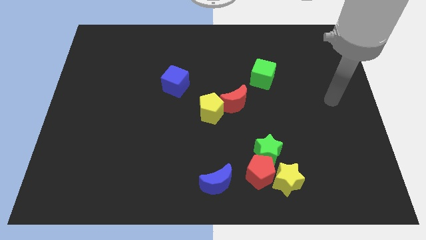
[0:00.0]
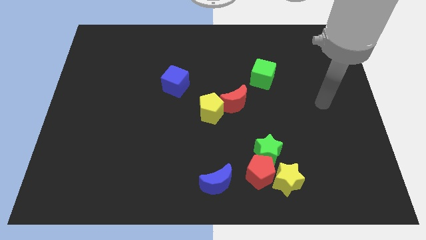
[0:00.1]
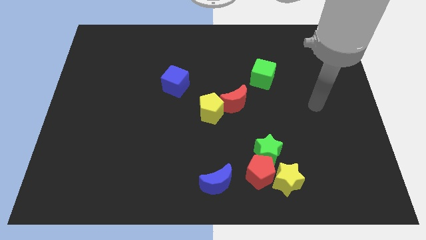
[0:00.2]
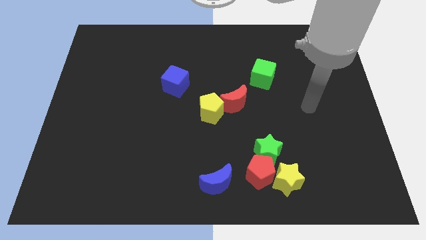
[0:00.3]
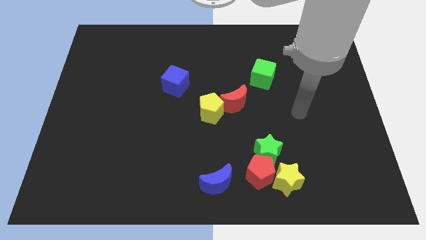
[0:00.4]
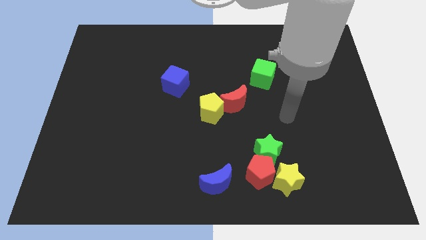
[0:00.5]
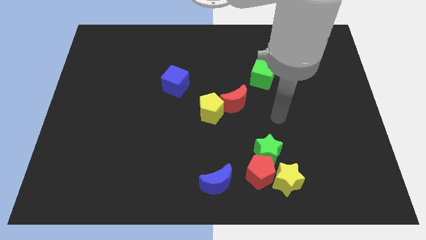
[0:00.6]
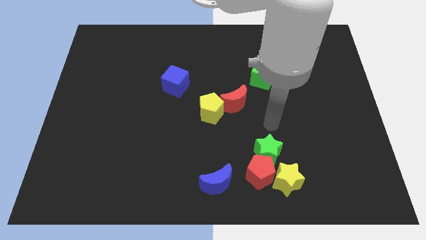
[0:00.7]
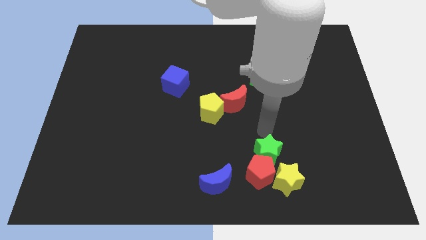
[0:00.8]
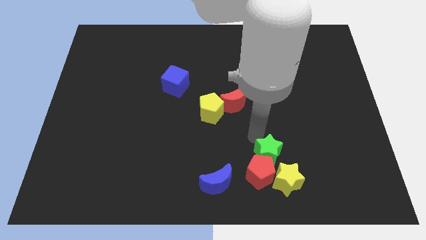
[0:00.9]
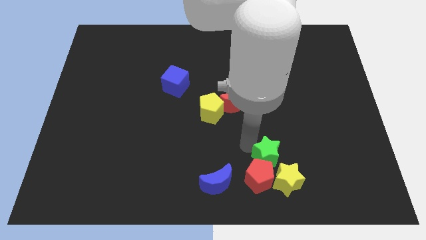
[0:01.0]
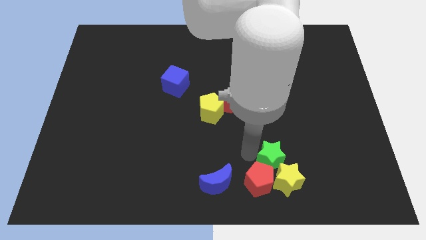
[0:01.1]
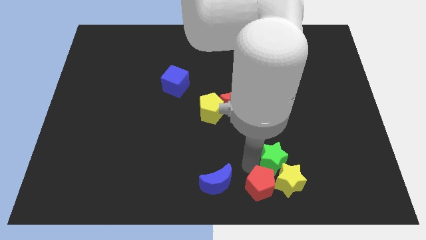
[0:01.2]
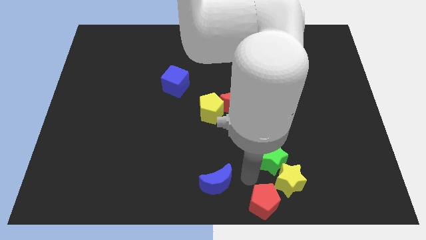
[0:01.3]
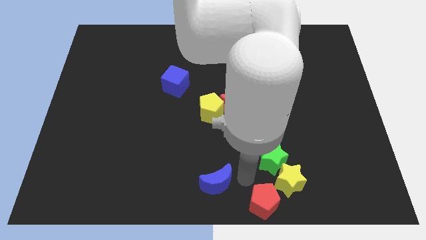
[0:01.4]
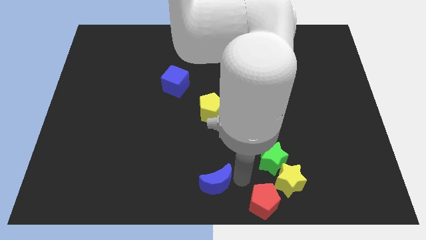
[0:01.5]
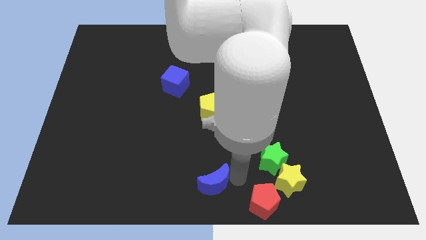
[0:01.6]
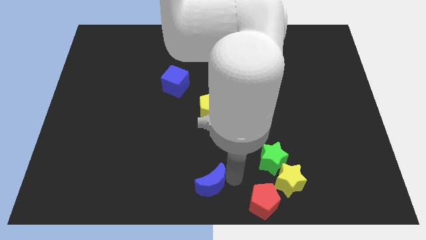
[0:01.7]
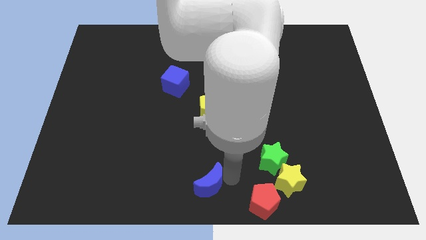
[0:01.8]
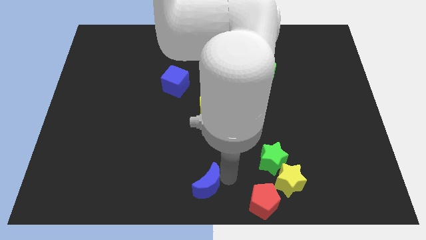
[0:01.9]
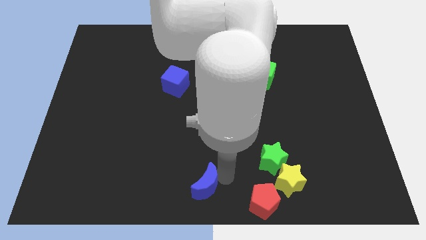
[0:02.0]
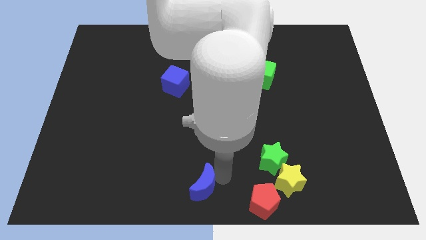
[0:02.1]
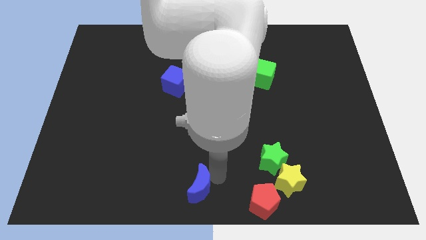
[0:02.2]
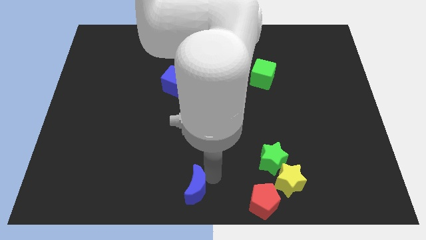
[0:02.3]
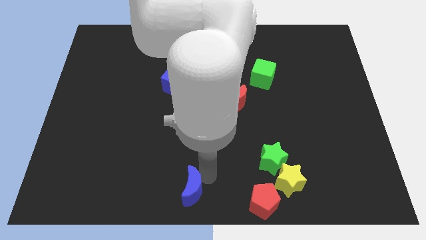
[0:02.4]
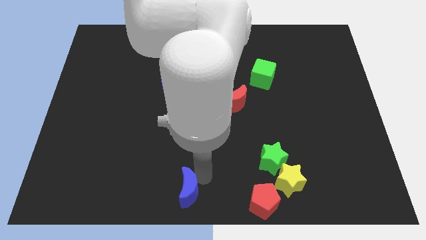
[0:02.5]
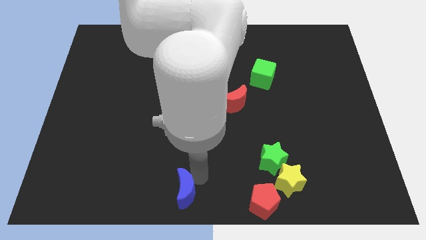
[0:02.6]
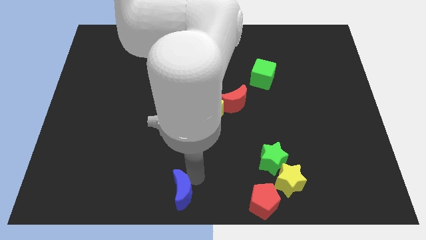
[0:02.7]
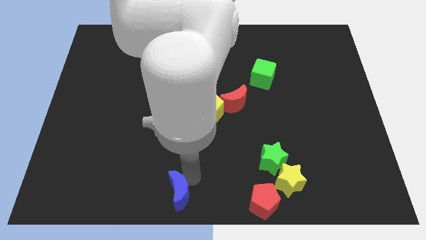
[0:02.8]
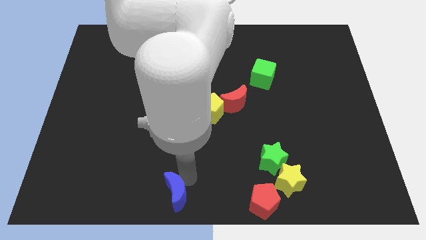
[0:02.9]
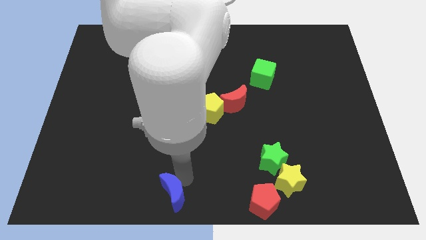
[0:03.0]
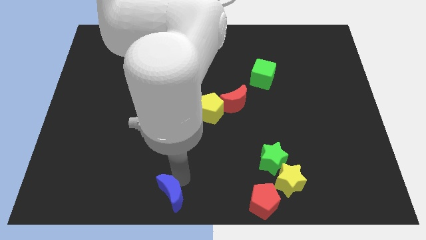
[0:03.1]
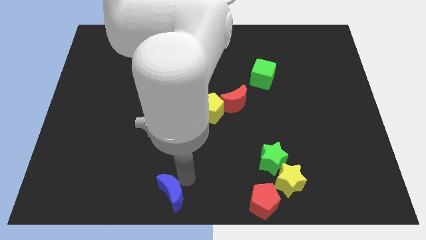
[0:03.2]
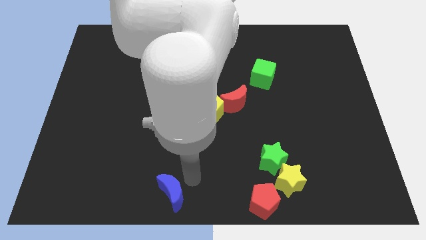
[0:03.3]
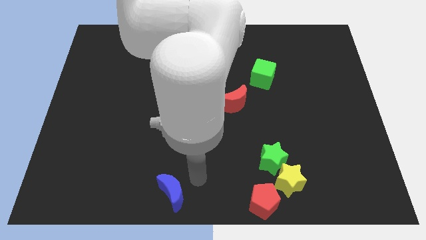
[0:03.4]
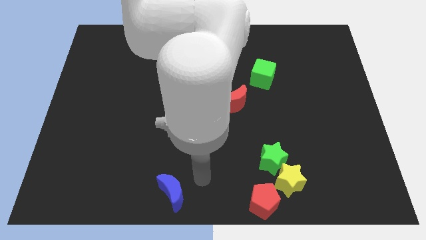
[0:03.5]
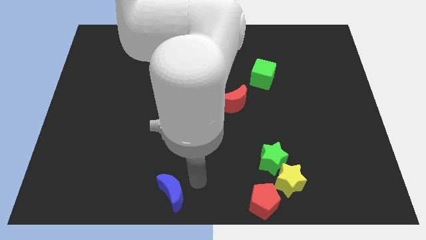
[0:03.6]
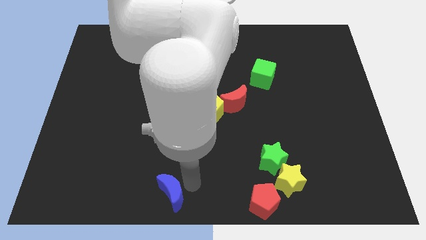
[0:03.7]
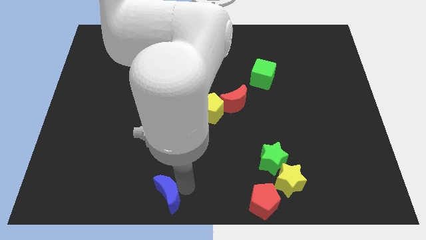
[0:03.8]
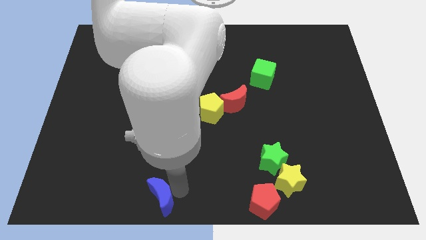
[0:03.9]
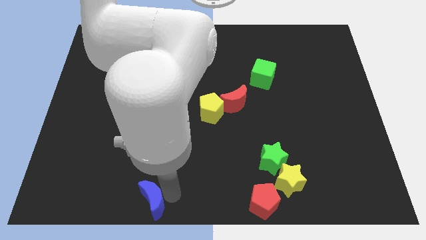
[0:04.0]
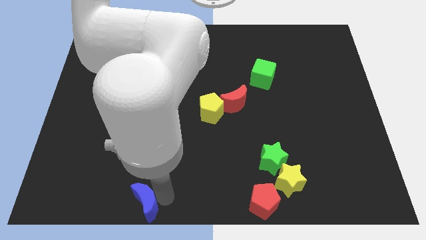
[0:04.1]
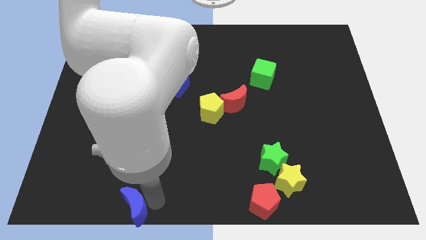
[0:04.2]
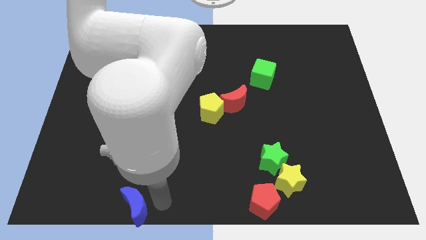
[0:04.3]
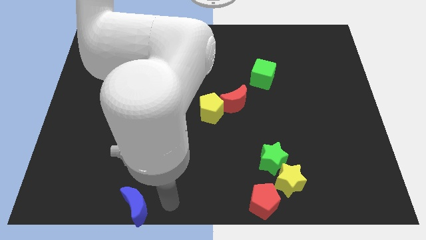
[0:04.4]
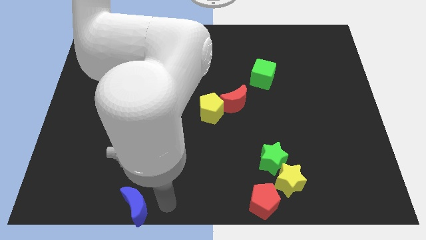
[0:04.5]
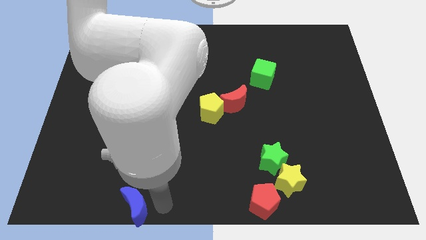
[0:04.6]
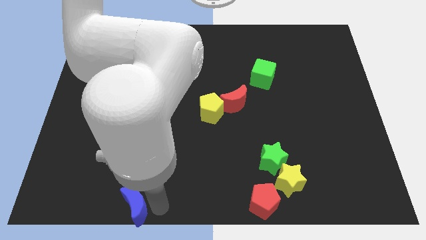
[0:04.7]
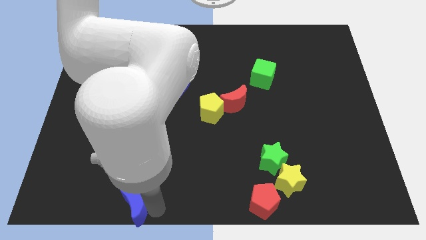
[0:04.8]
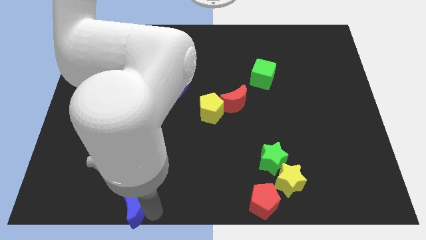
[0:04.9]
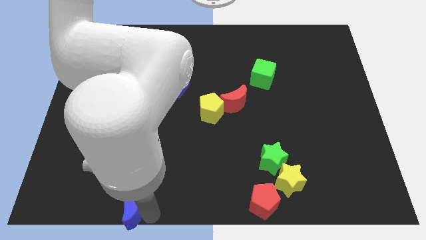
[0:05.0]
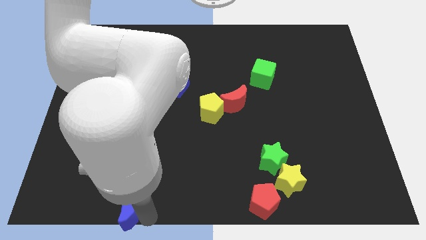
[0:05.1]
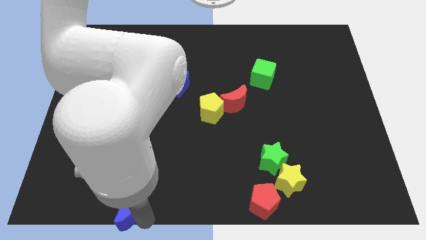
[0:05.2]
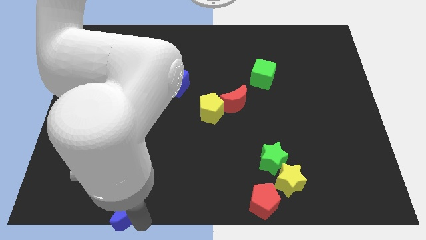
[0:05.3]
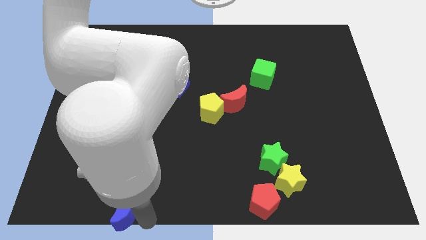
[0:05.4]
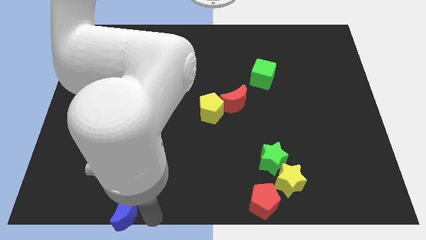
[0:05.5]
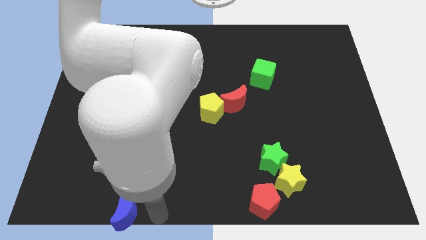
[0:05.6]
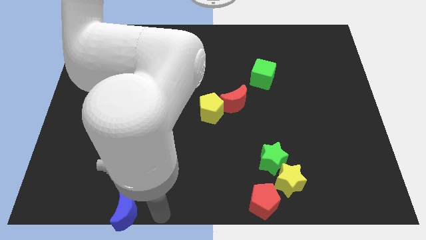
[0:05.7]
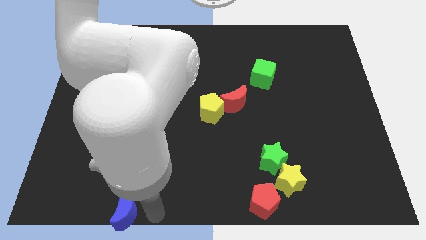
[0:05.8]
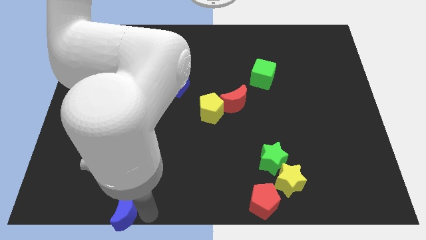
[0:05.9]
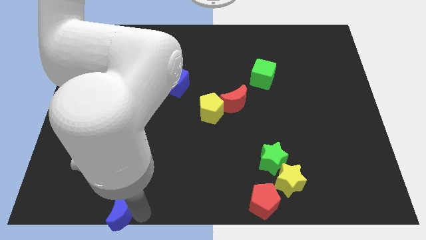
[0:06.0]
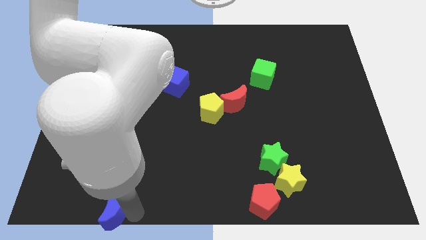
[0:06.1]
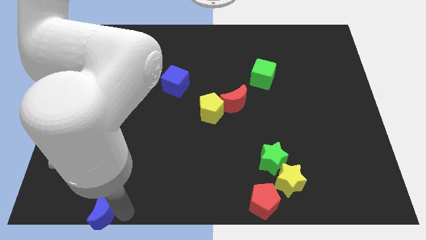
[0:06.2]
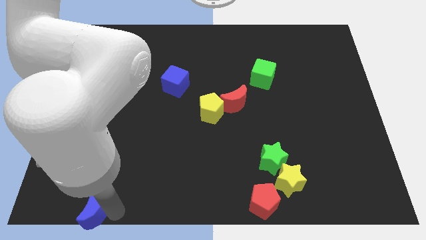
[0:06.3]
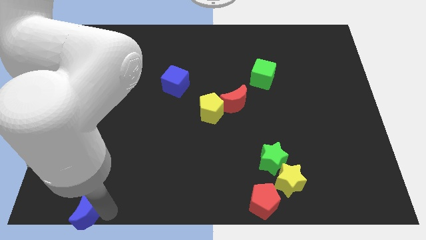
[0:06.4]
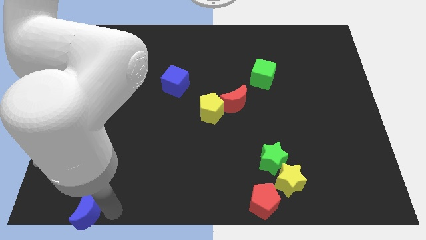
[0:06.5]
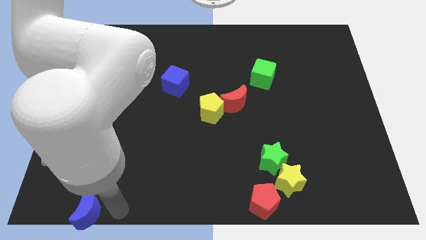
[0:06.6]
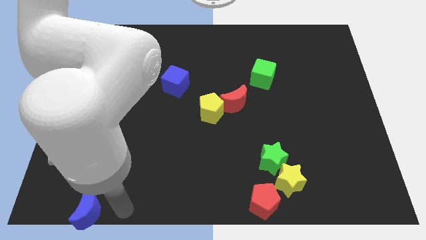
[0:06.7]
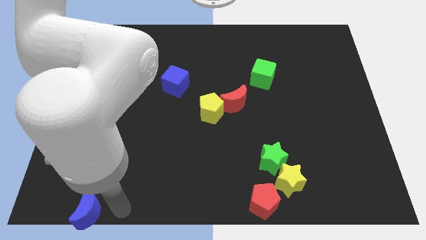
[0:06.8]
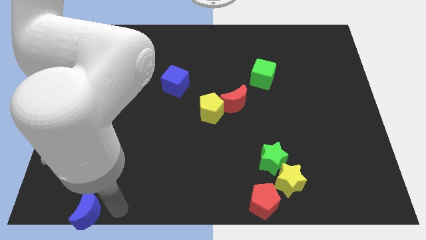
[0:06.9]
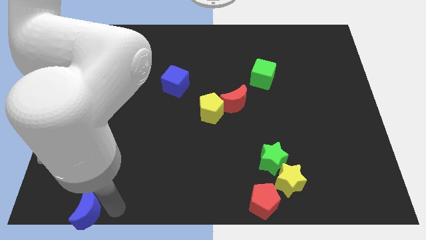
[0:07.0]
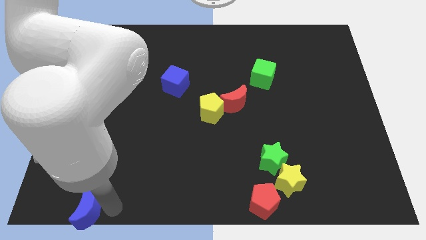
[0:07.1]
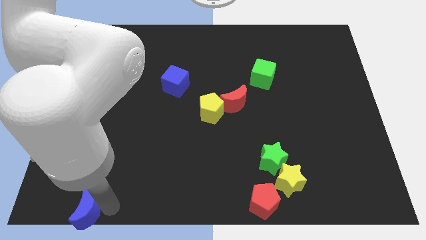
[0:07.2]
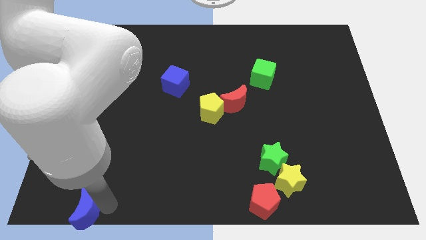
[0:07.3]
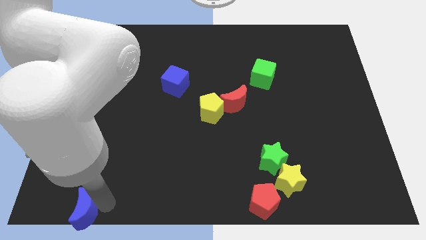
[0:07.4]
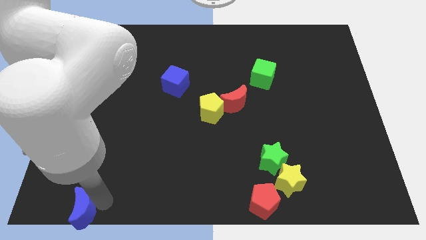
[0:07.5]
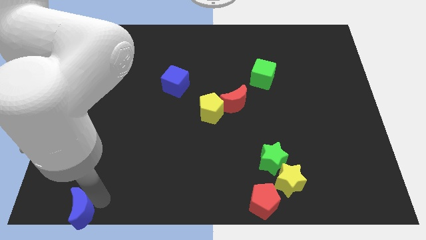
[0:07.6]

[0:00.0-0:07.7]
move the blue moon to the bottom left of the board
